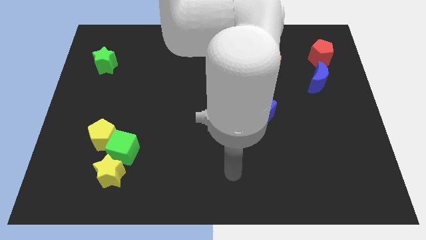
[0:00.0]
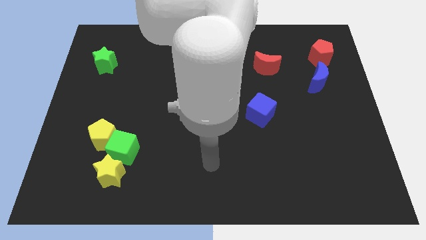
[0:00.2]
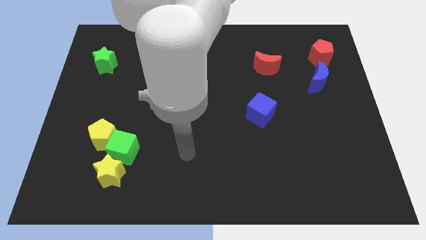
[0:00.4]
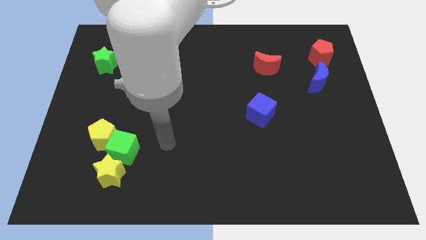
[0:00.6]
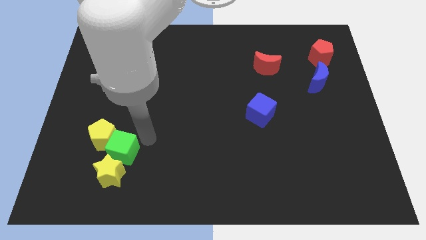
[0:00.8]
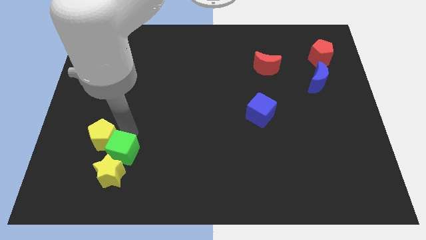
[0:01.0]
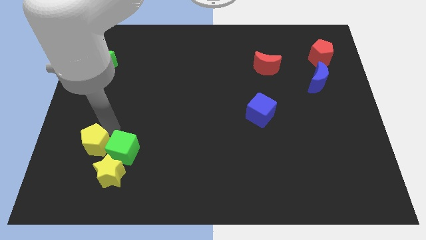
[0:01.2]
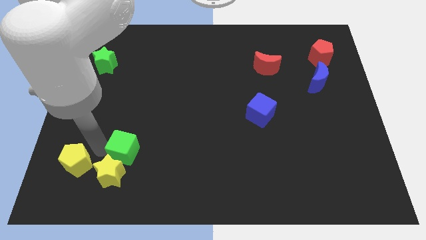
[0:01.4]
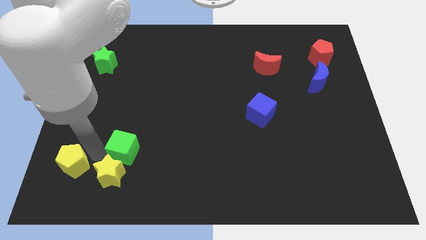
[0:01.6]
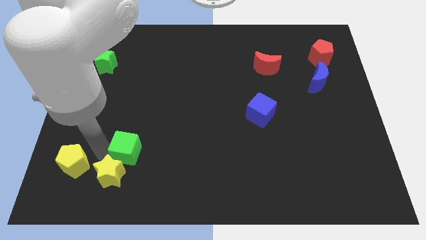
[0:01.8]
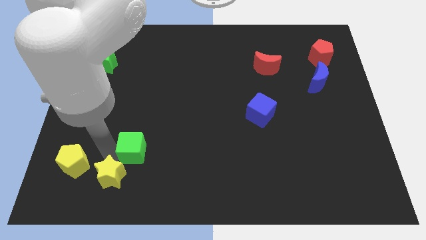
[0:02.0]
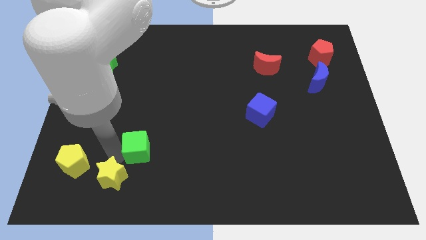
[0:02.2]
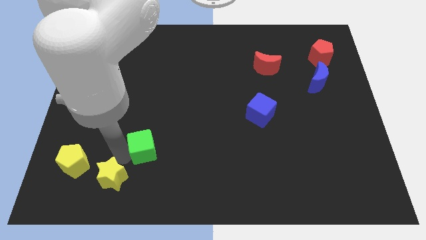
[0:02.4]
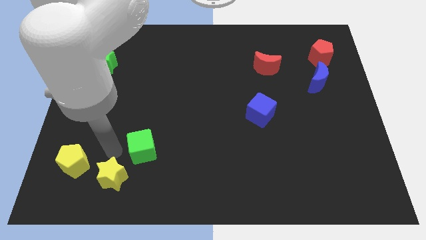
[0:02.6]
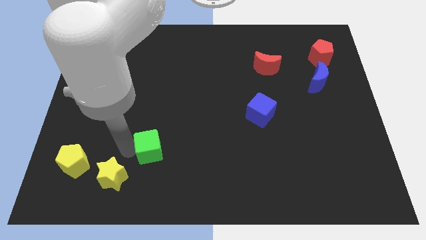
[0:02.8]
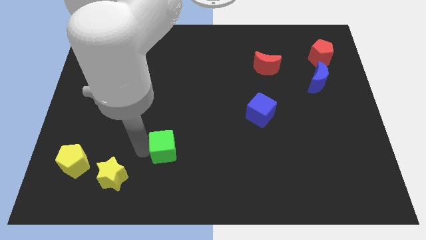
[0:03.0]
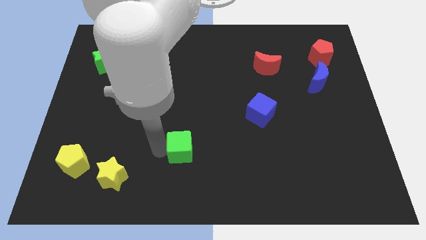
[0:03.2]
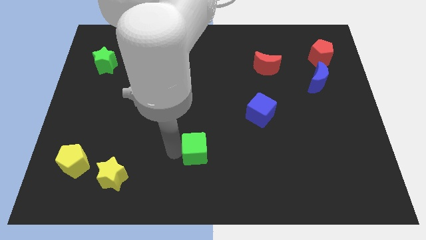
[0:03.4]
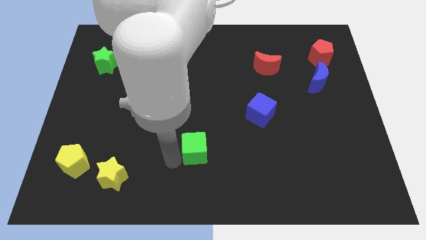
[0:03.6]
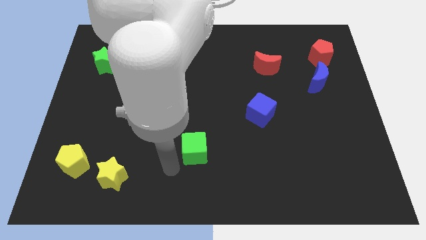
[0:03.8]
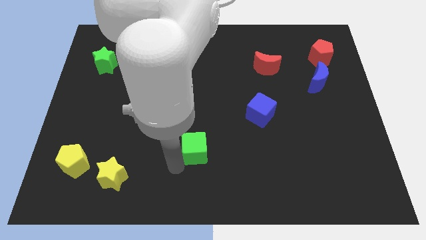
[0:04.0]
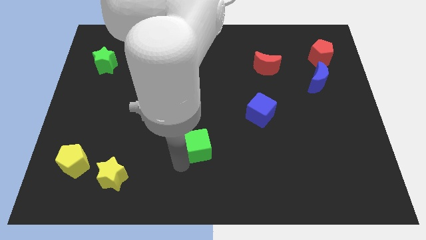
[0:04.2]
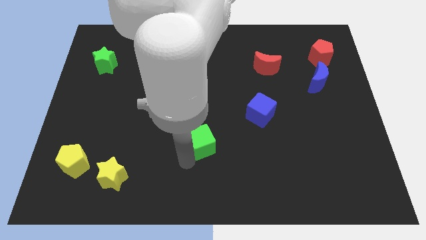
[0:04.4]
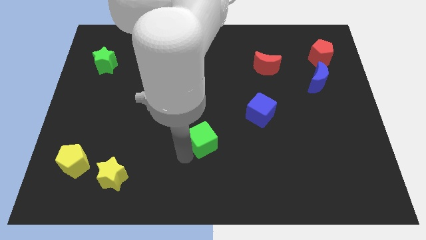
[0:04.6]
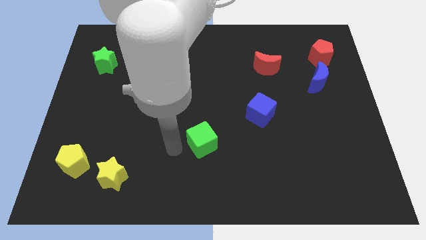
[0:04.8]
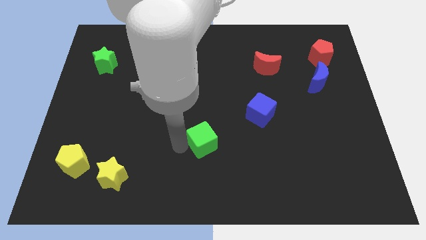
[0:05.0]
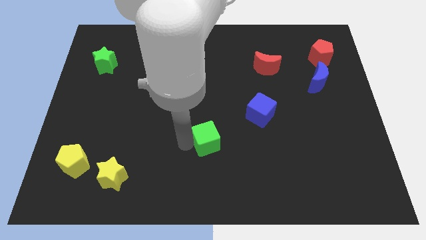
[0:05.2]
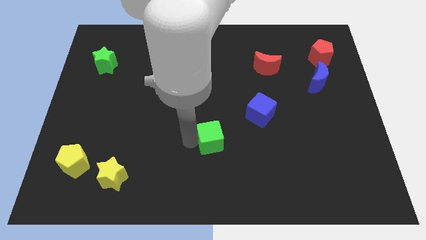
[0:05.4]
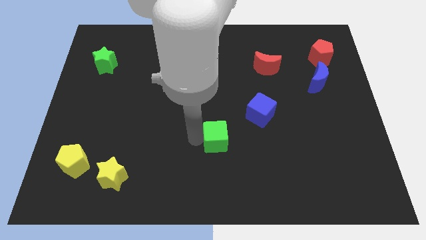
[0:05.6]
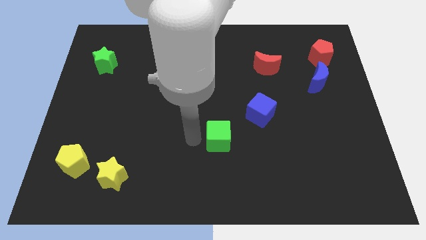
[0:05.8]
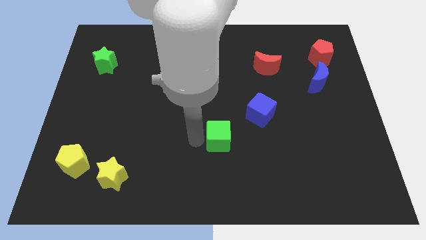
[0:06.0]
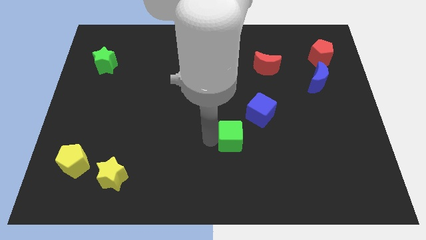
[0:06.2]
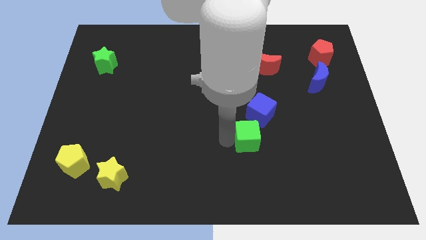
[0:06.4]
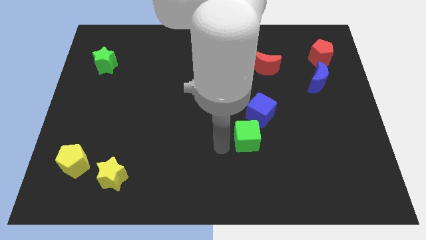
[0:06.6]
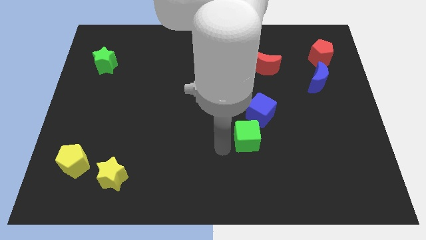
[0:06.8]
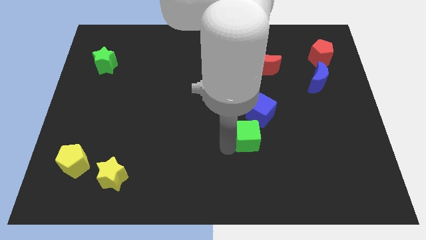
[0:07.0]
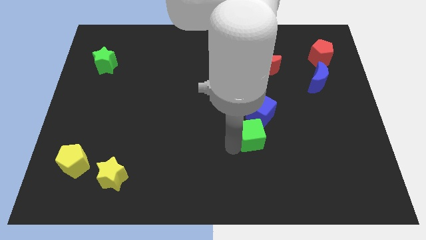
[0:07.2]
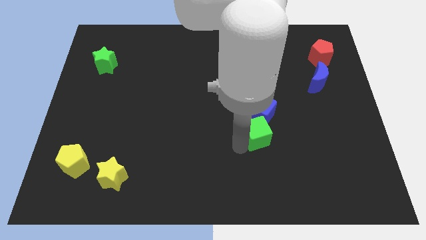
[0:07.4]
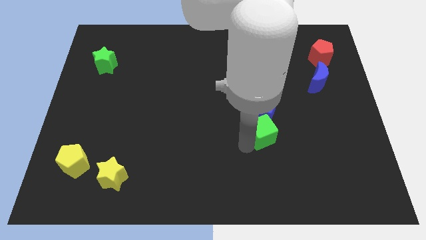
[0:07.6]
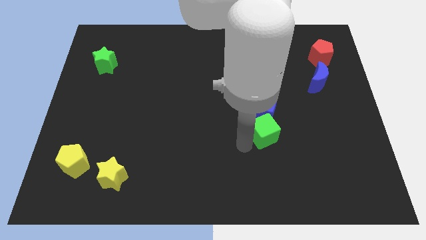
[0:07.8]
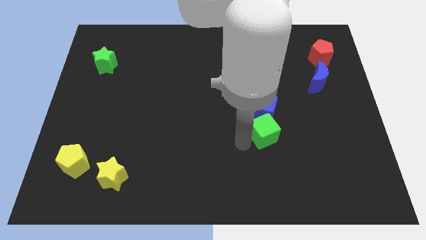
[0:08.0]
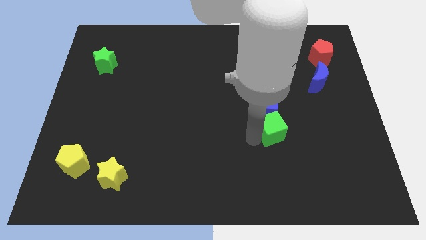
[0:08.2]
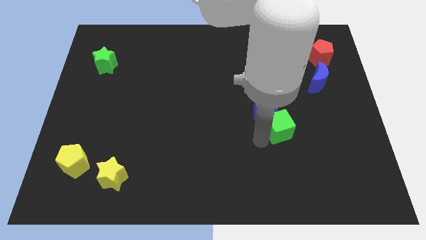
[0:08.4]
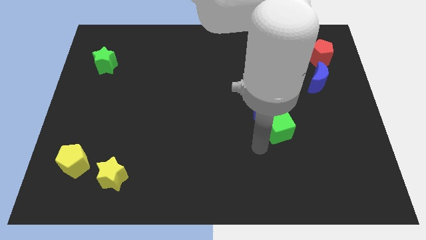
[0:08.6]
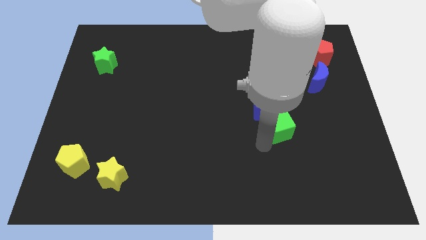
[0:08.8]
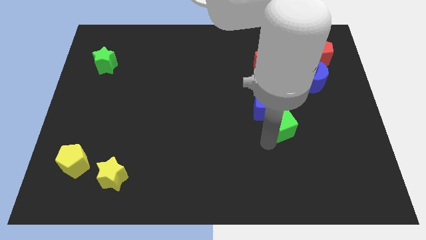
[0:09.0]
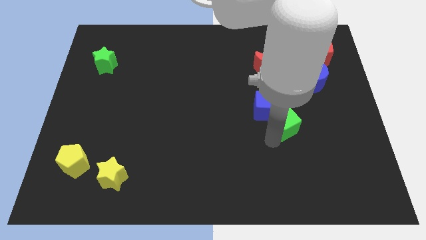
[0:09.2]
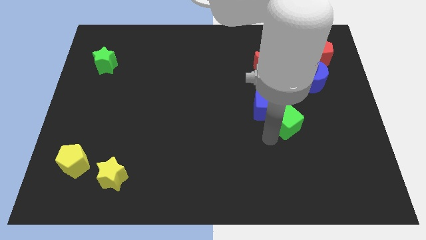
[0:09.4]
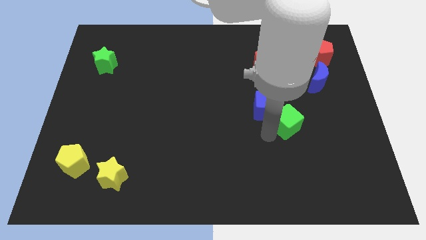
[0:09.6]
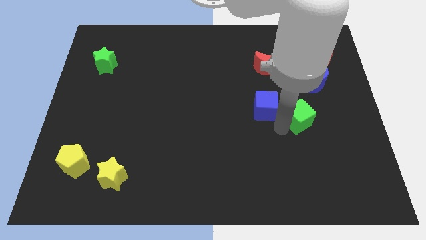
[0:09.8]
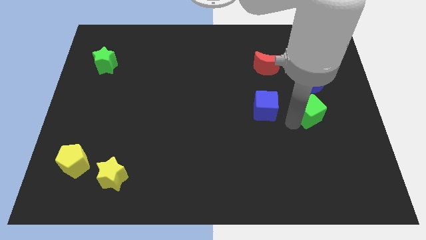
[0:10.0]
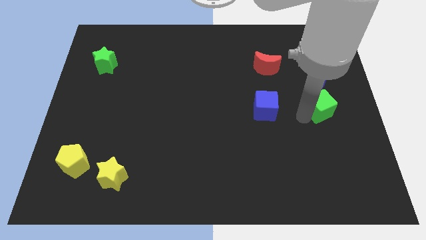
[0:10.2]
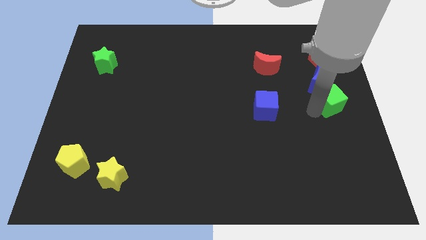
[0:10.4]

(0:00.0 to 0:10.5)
move the green cube to the bottom of the red pentagon
